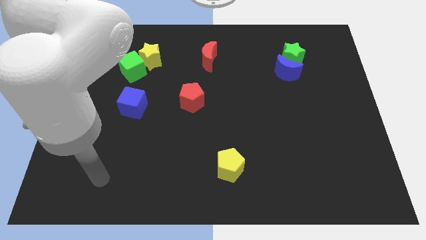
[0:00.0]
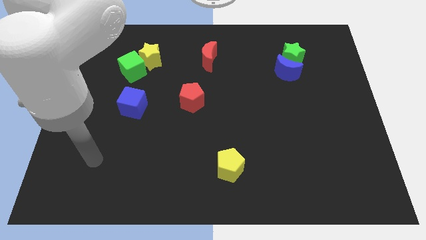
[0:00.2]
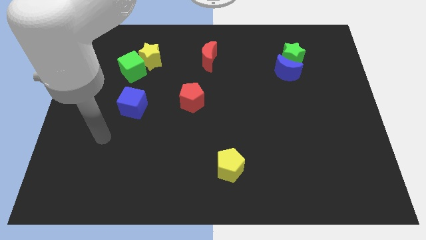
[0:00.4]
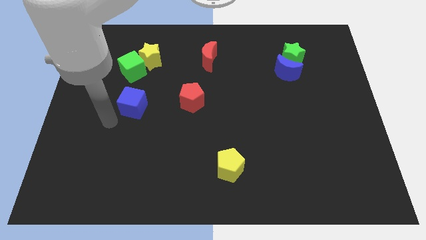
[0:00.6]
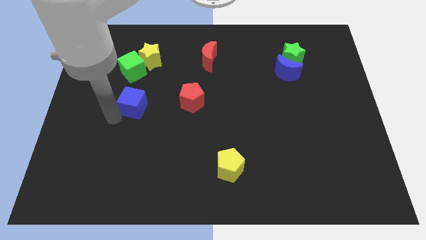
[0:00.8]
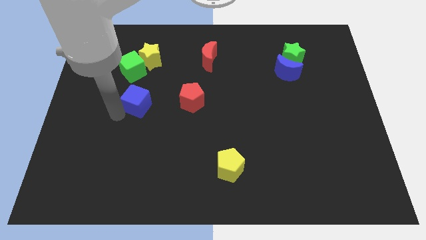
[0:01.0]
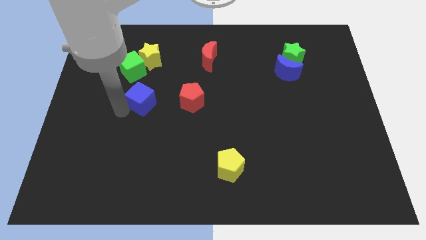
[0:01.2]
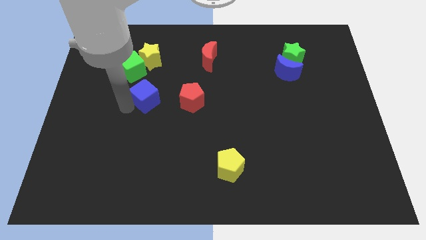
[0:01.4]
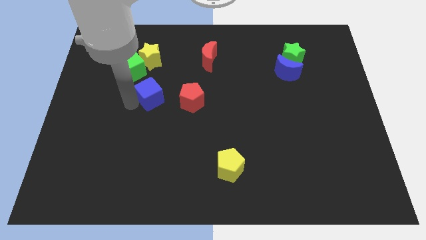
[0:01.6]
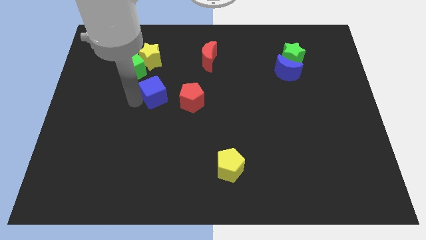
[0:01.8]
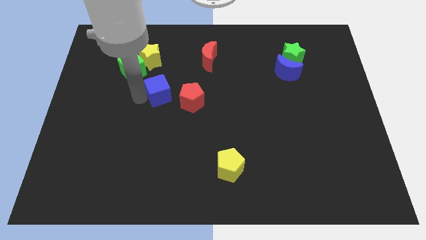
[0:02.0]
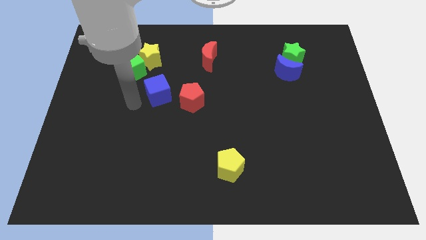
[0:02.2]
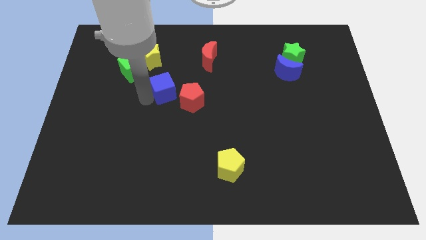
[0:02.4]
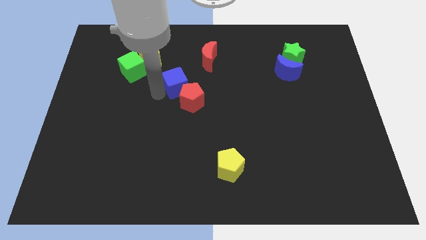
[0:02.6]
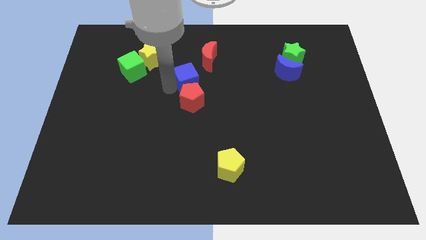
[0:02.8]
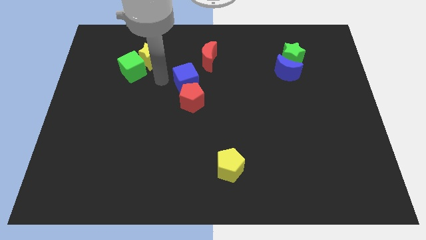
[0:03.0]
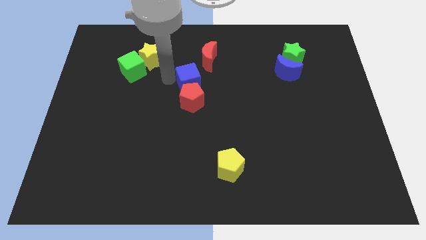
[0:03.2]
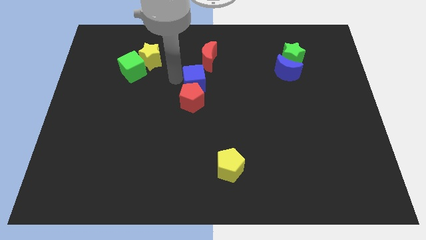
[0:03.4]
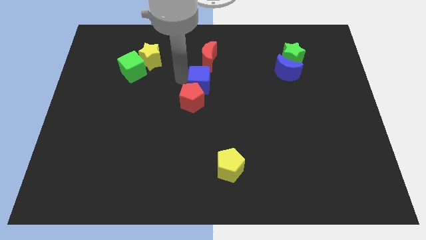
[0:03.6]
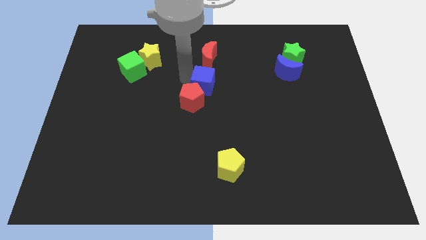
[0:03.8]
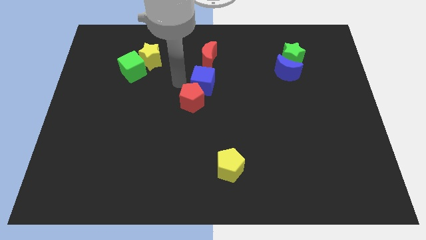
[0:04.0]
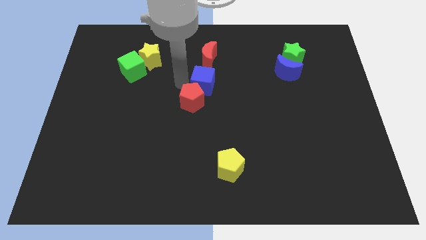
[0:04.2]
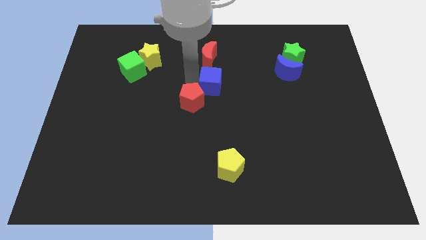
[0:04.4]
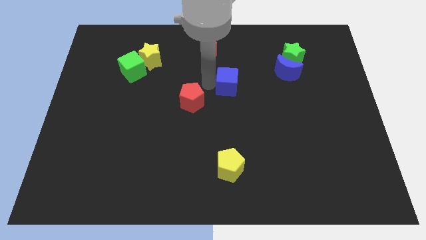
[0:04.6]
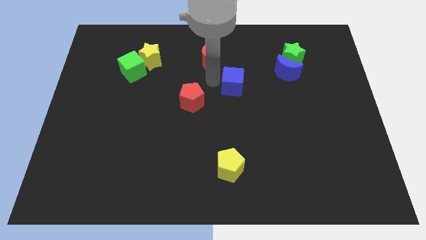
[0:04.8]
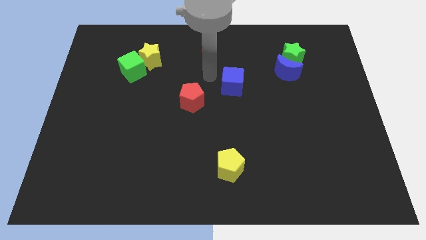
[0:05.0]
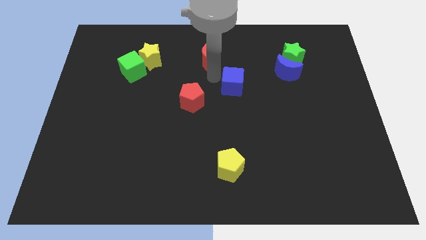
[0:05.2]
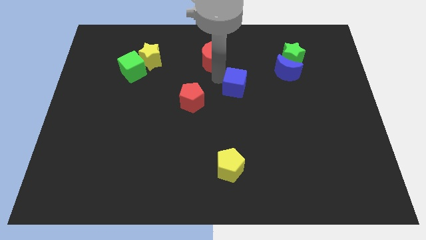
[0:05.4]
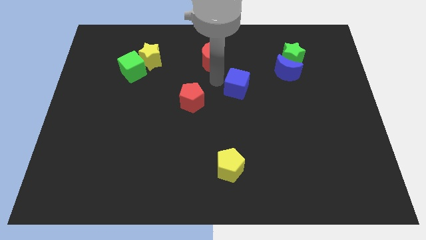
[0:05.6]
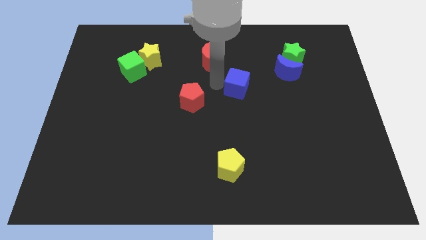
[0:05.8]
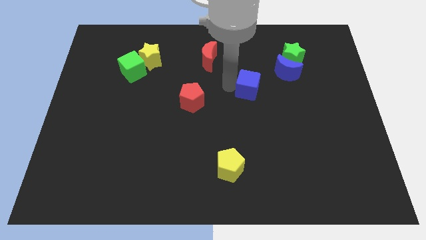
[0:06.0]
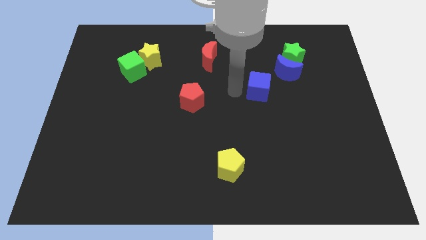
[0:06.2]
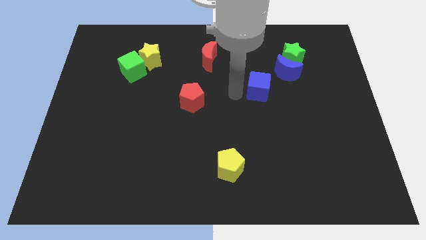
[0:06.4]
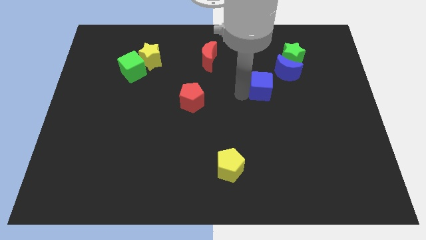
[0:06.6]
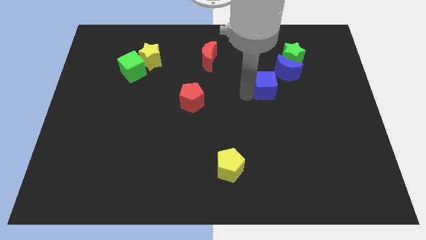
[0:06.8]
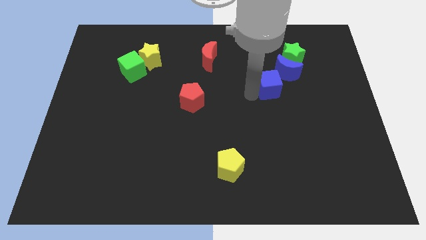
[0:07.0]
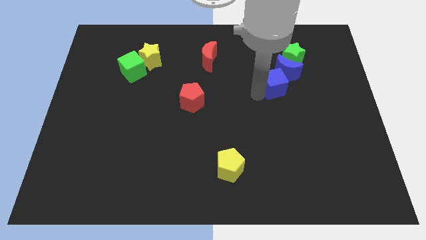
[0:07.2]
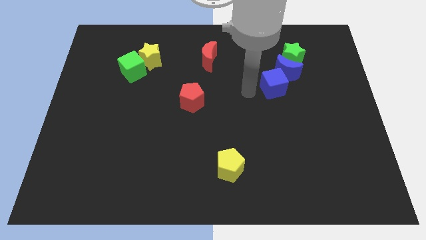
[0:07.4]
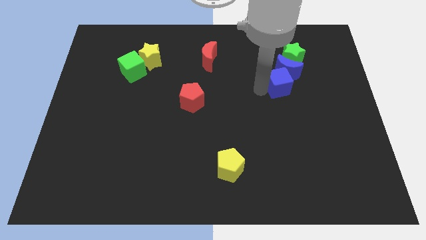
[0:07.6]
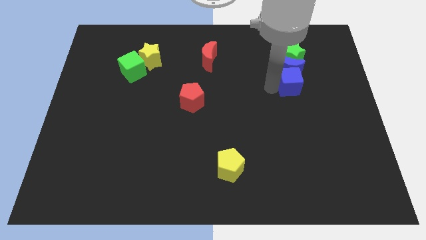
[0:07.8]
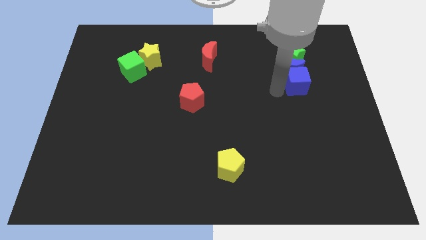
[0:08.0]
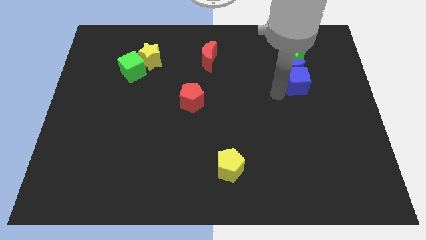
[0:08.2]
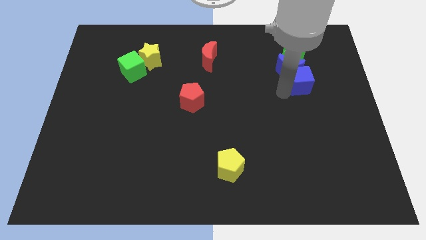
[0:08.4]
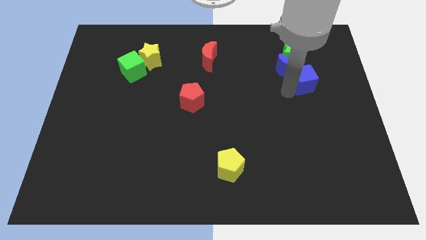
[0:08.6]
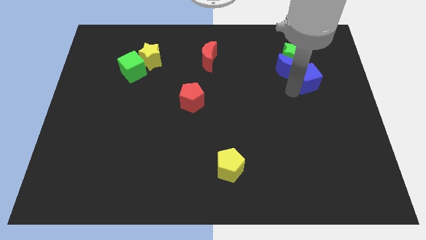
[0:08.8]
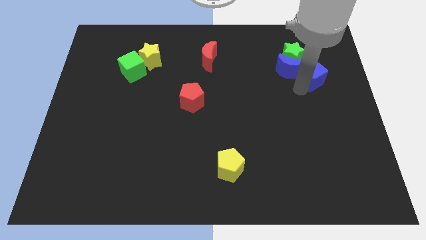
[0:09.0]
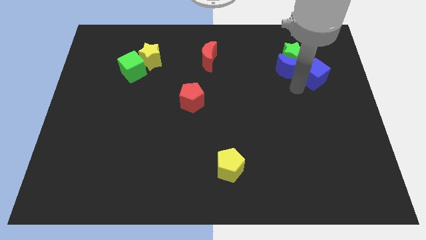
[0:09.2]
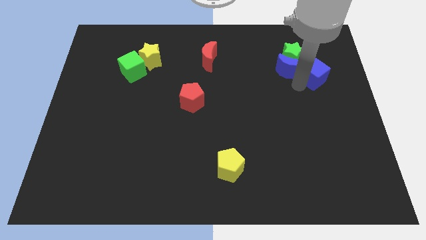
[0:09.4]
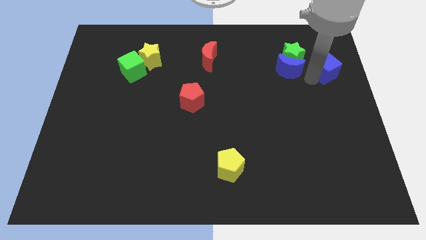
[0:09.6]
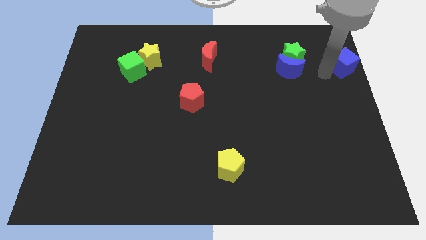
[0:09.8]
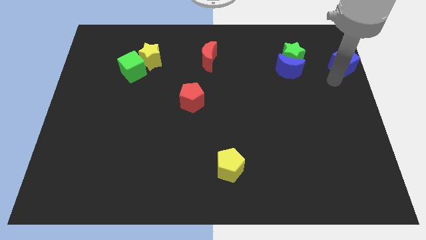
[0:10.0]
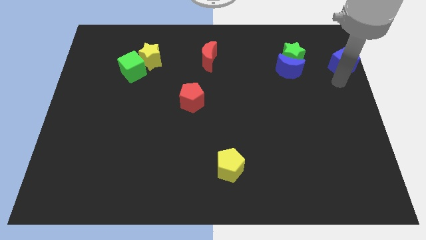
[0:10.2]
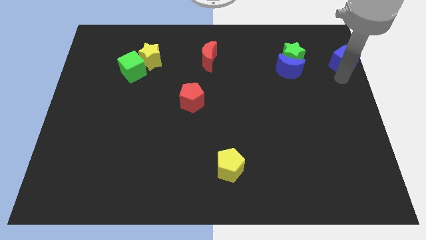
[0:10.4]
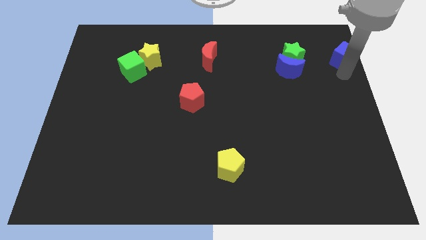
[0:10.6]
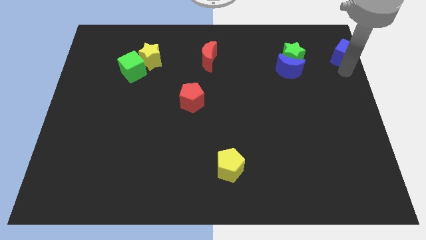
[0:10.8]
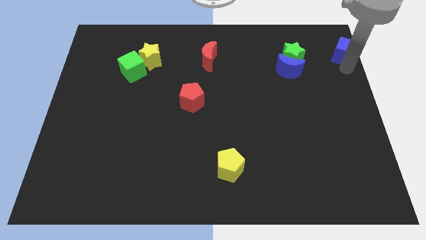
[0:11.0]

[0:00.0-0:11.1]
move the blue cube to the top right corner
